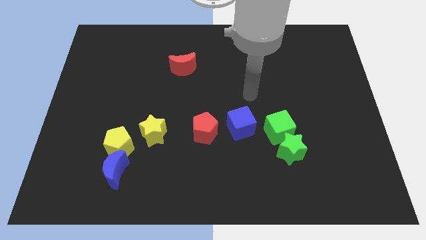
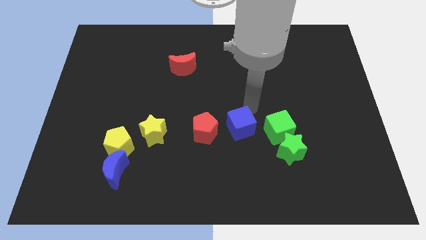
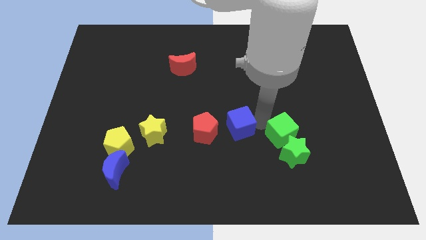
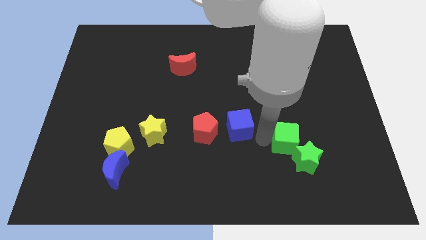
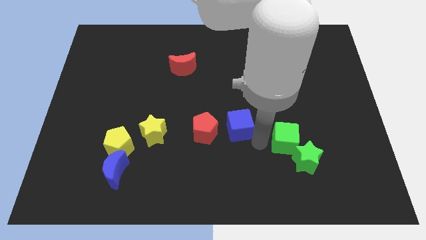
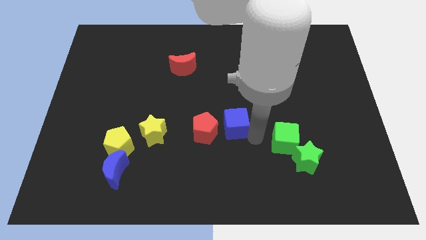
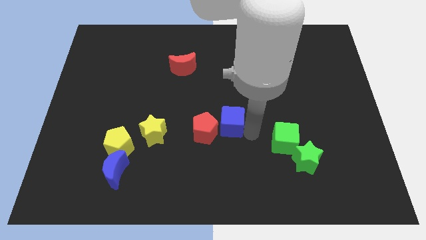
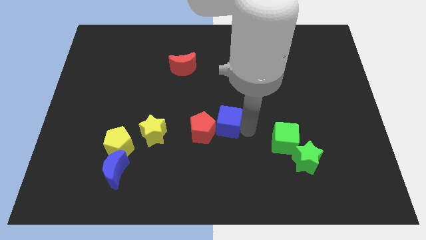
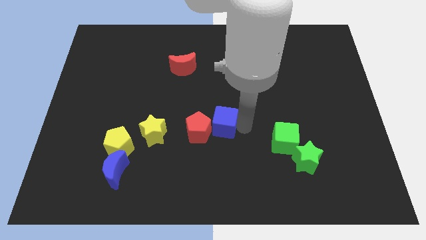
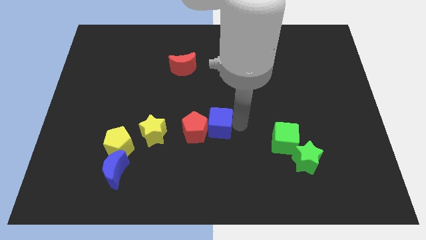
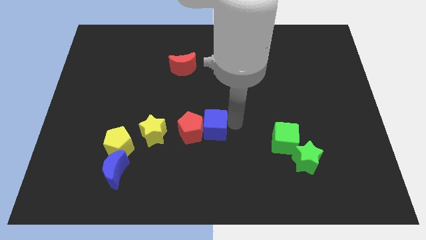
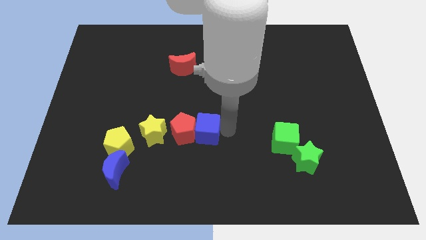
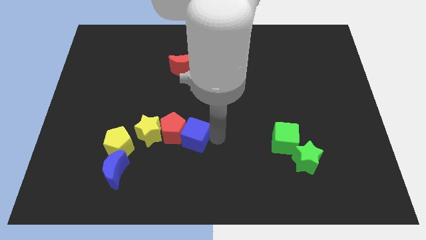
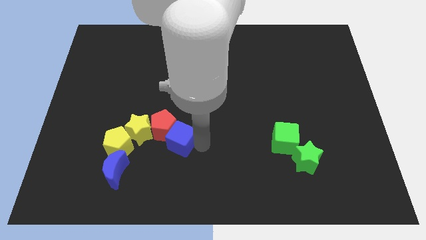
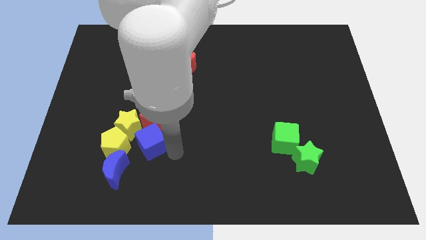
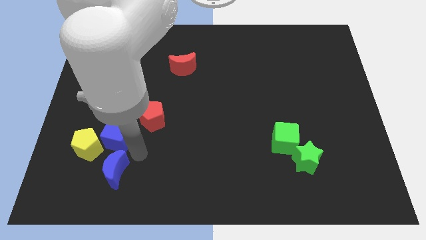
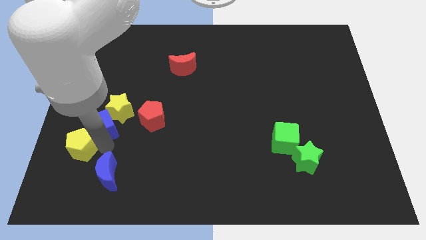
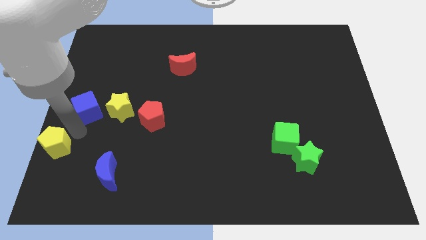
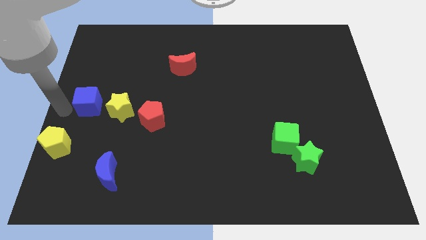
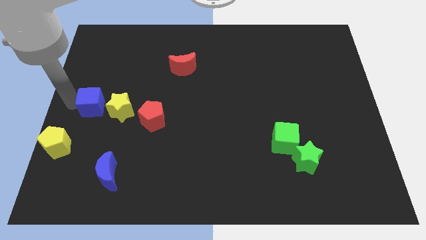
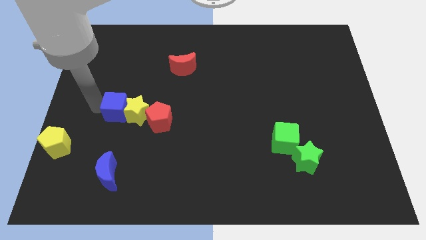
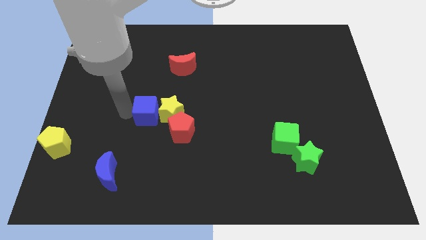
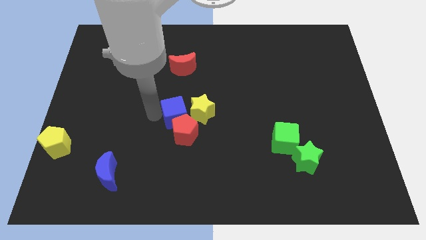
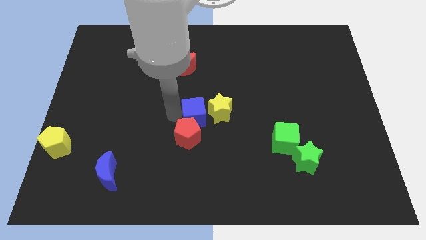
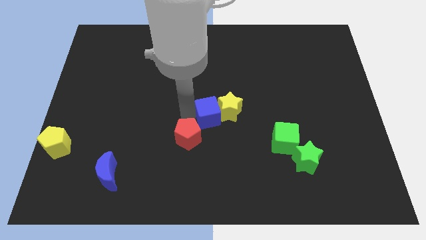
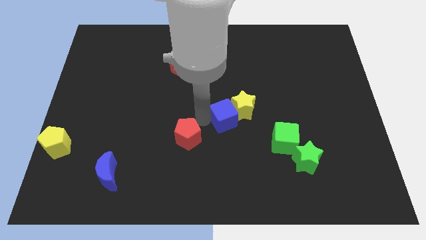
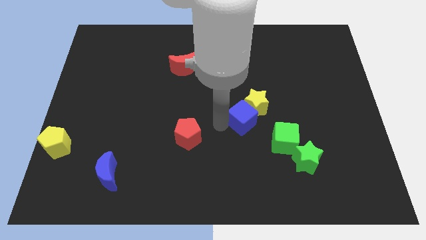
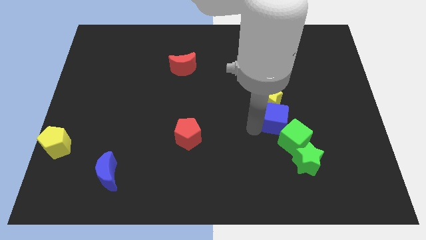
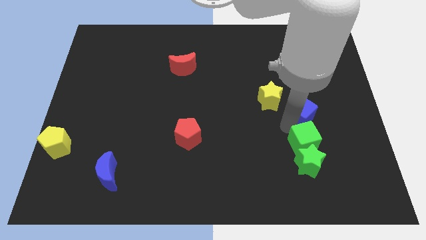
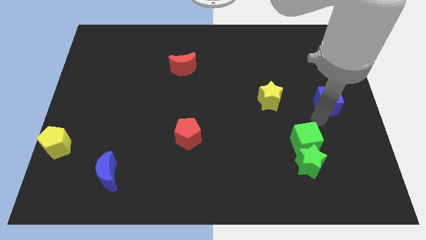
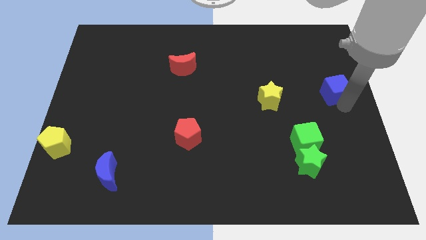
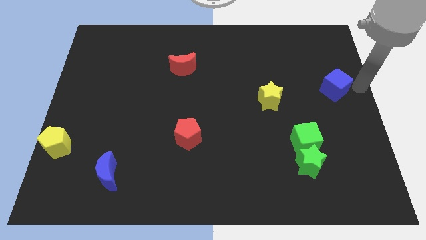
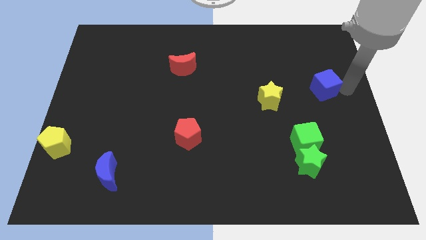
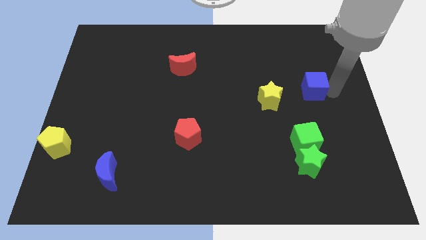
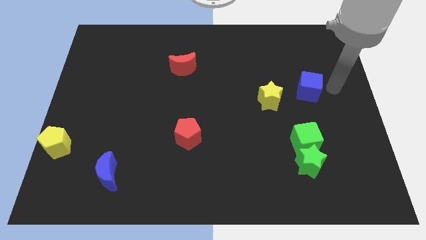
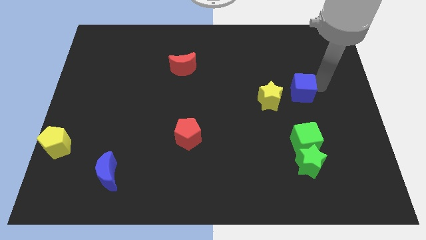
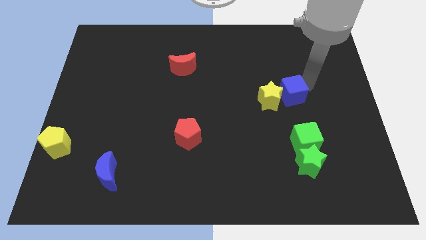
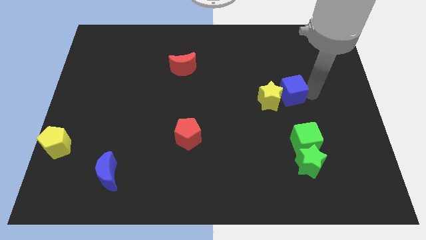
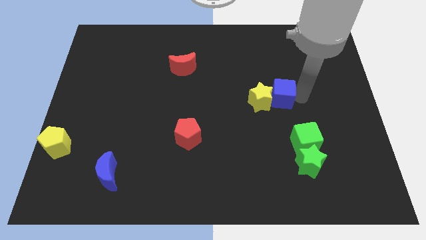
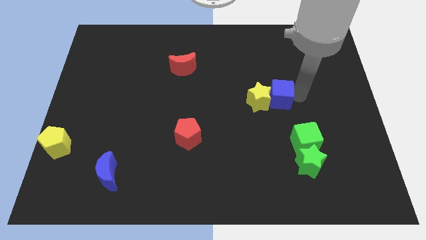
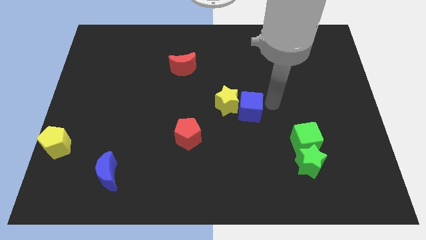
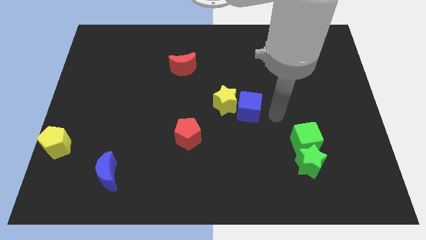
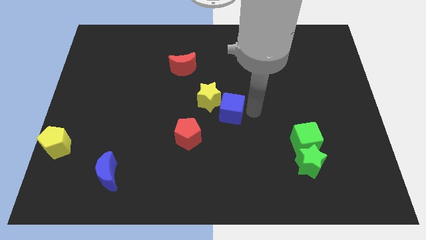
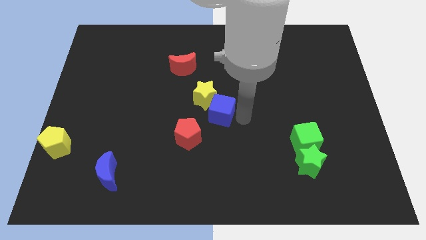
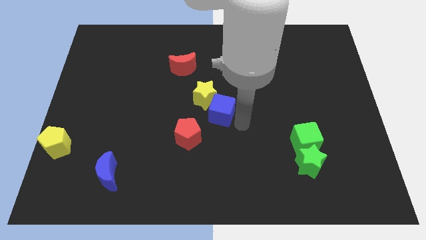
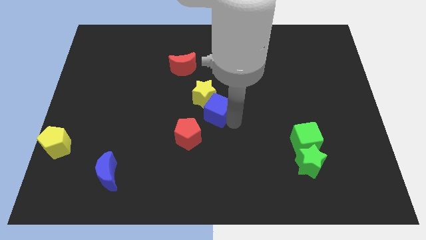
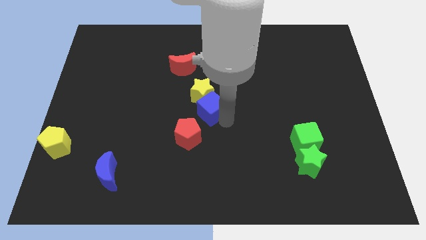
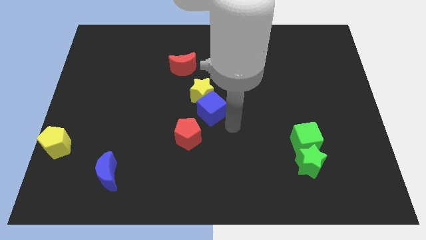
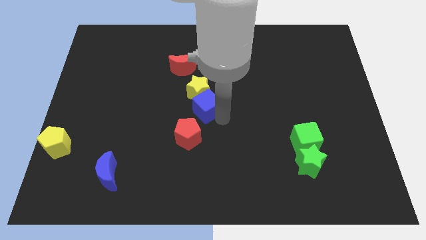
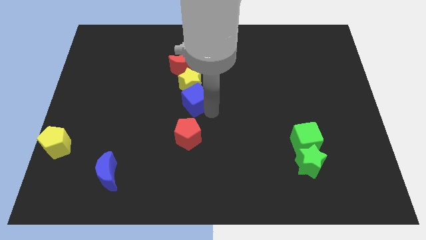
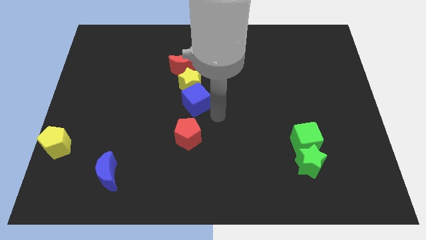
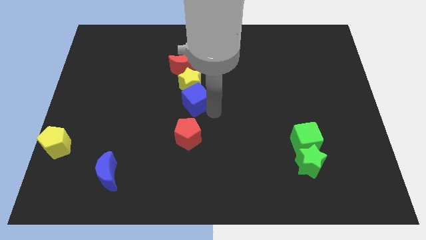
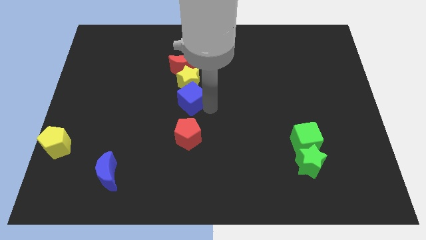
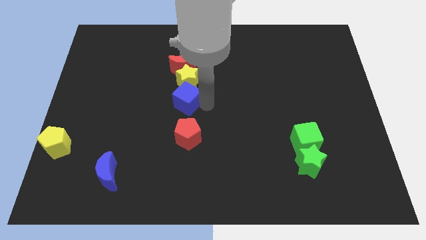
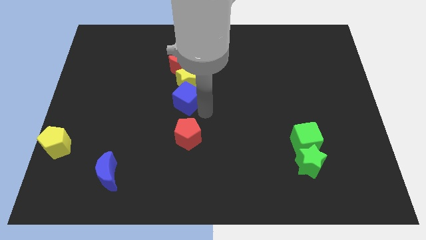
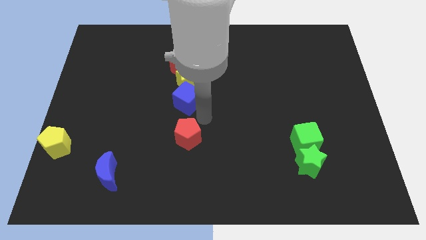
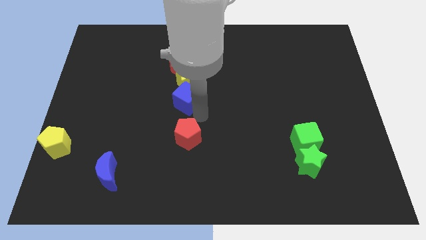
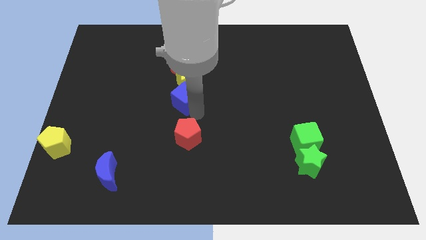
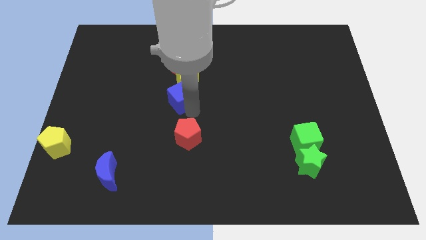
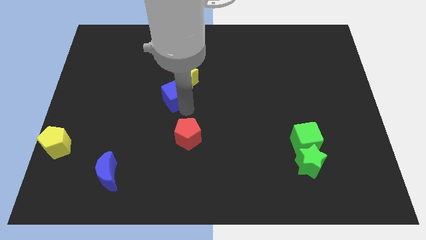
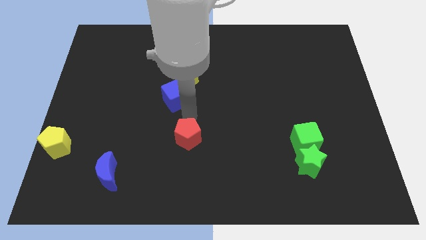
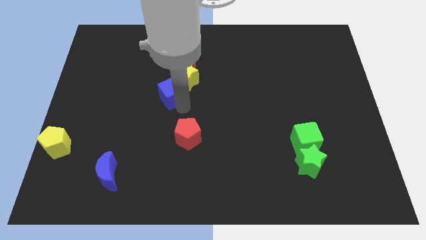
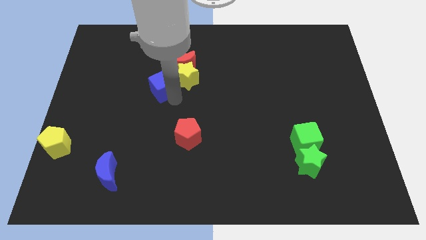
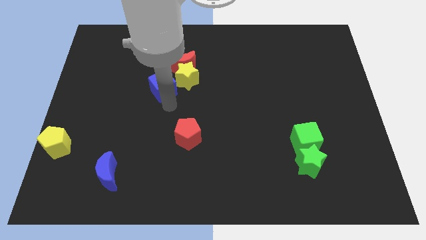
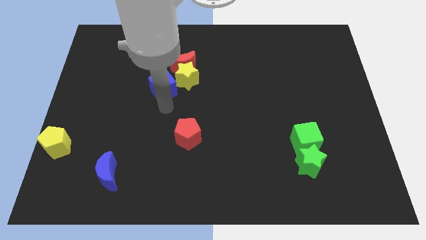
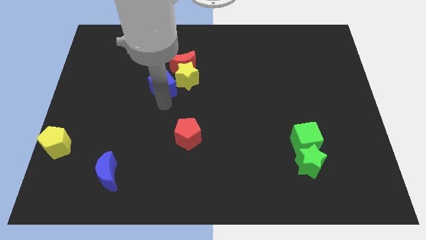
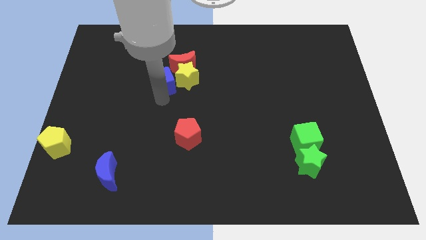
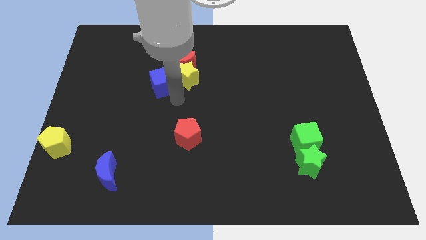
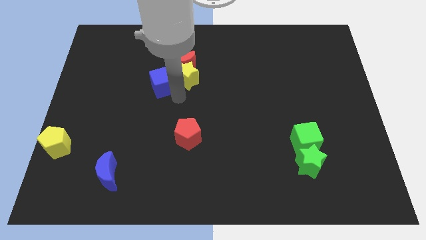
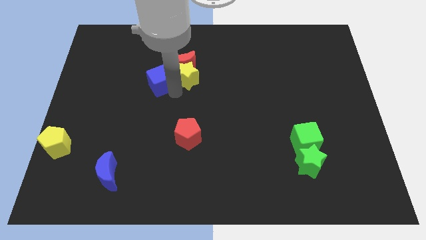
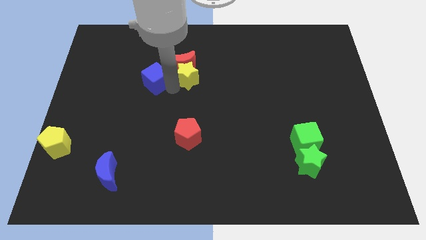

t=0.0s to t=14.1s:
move the blue cube to the left of the red moon
